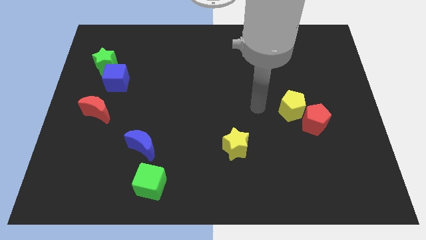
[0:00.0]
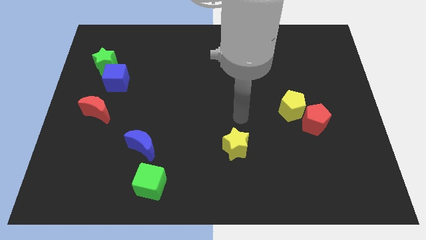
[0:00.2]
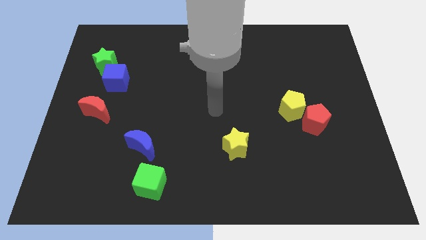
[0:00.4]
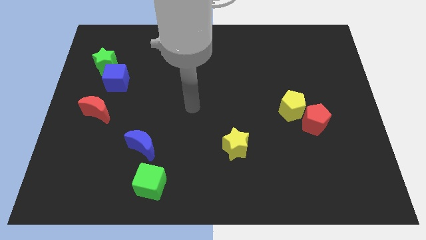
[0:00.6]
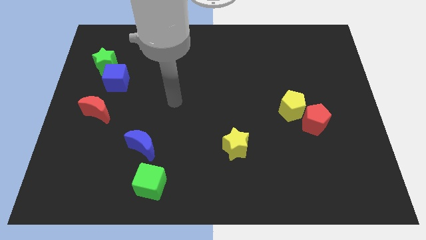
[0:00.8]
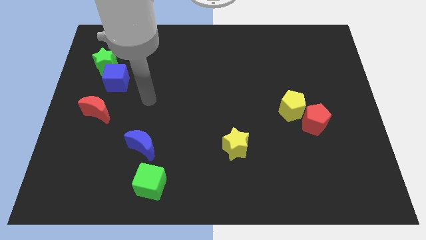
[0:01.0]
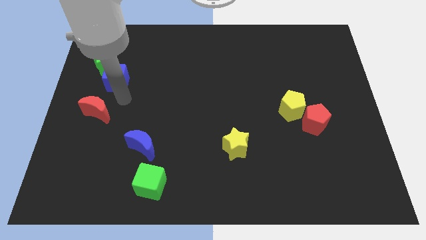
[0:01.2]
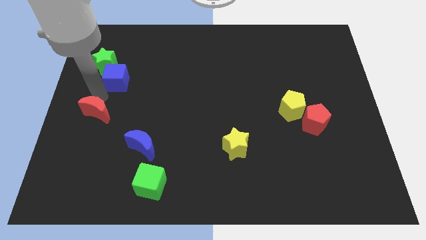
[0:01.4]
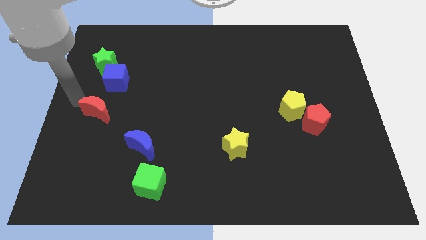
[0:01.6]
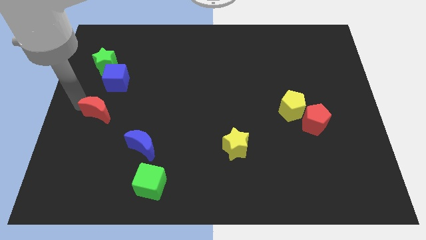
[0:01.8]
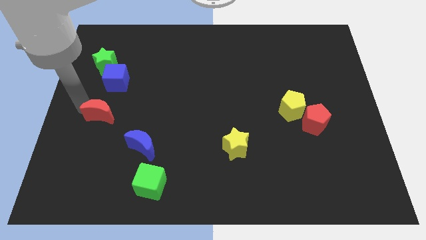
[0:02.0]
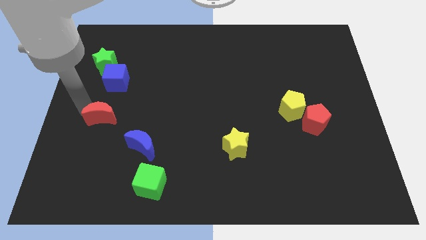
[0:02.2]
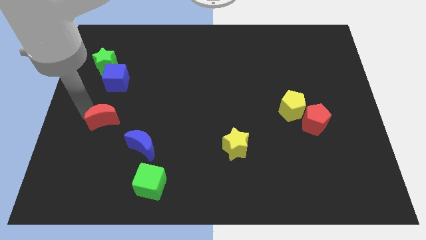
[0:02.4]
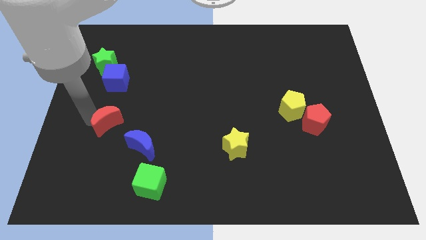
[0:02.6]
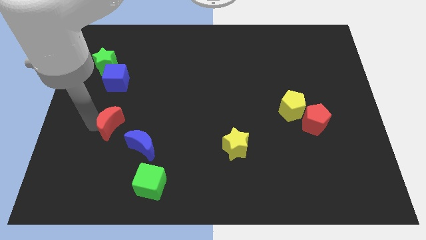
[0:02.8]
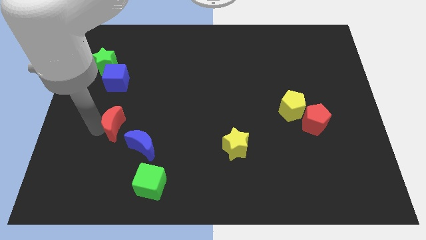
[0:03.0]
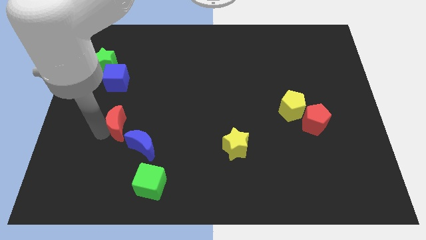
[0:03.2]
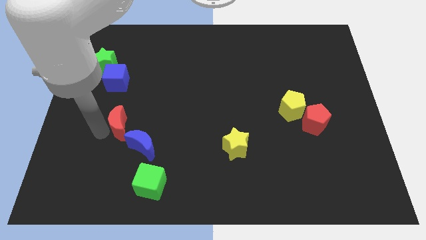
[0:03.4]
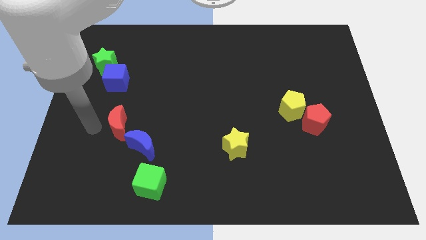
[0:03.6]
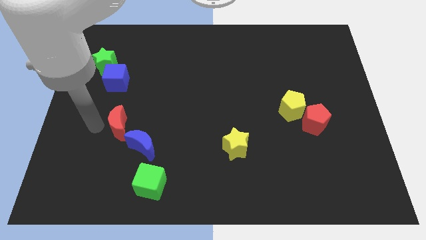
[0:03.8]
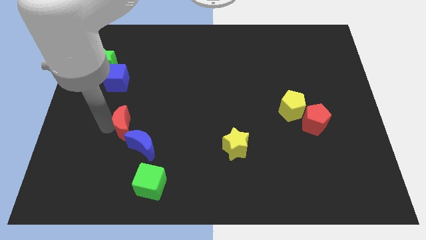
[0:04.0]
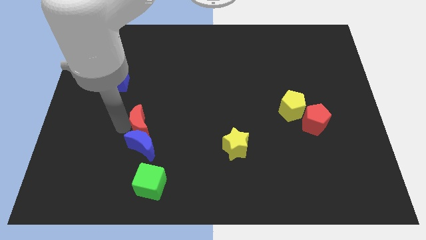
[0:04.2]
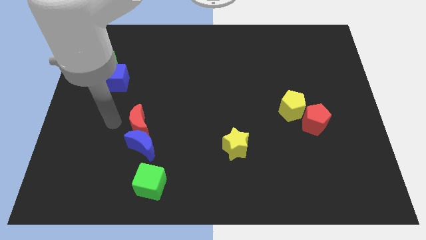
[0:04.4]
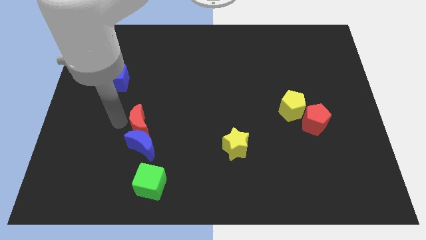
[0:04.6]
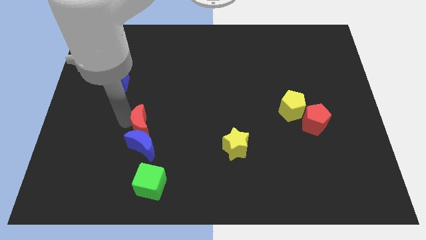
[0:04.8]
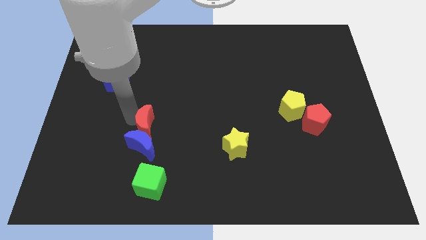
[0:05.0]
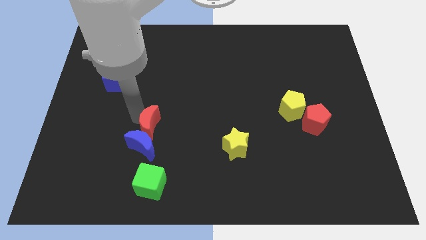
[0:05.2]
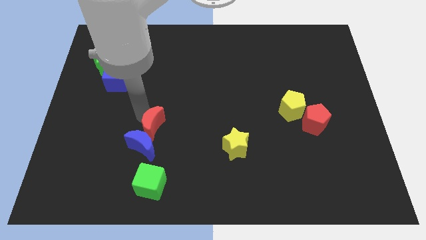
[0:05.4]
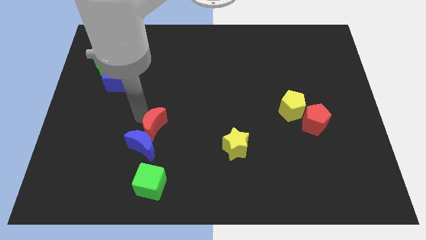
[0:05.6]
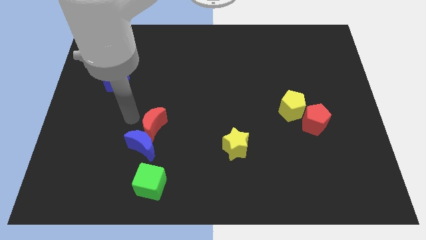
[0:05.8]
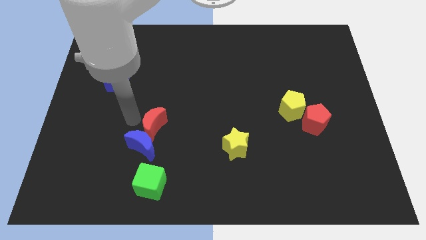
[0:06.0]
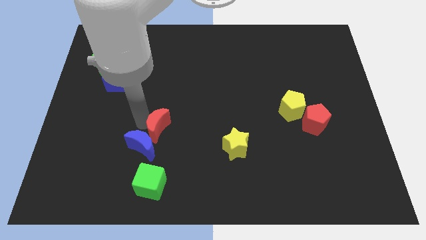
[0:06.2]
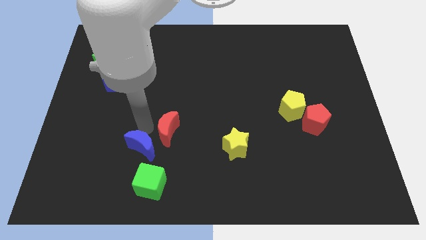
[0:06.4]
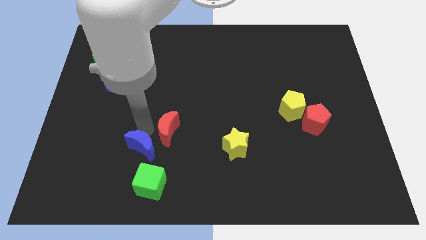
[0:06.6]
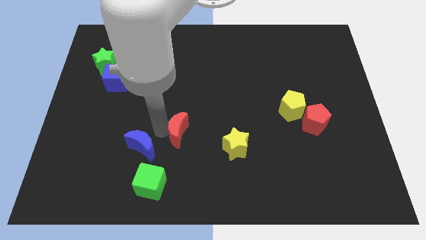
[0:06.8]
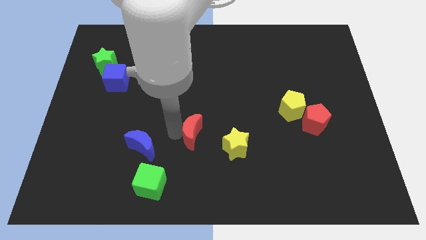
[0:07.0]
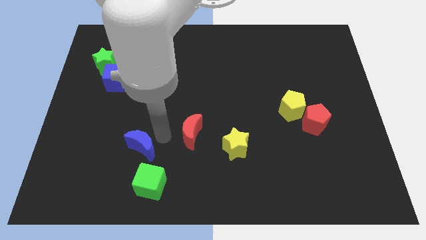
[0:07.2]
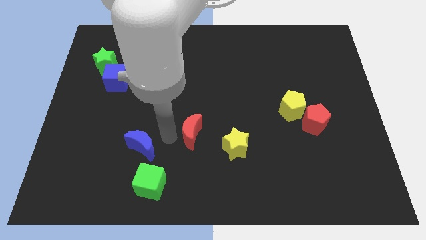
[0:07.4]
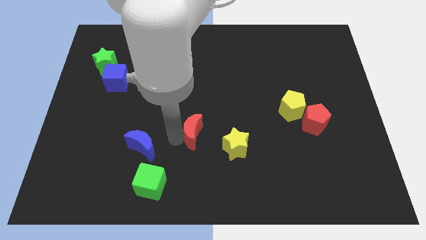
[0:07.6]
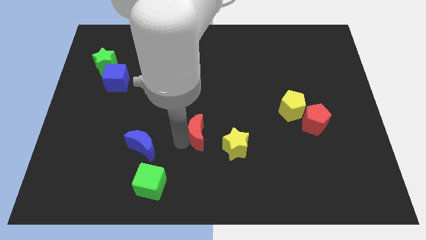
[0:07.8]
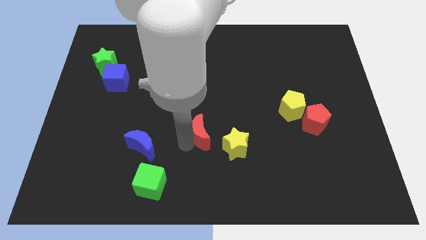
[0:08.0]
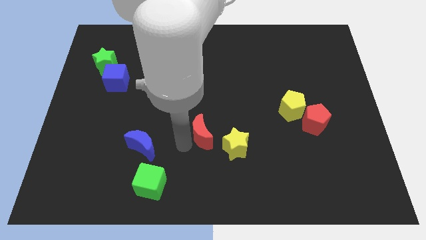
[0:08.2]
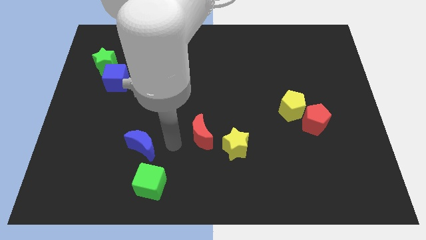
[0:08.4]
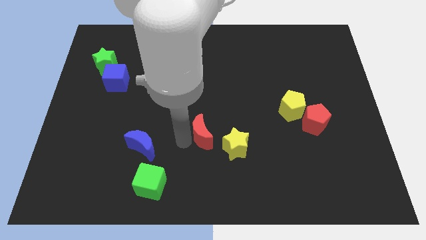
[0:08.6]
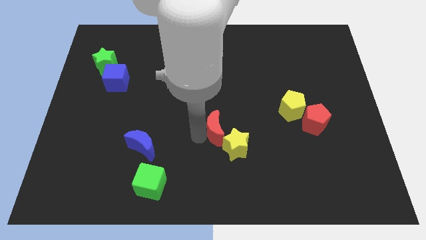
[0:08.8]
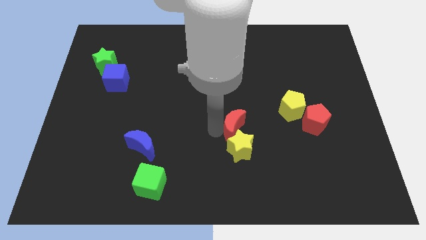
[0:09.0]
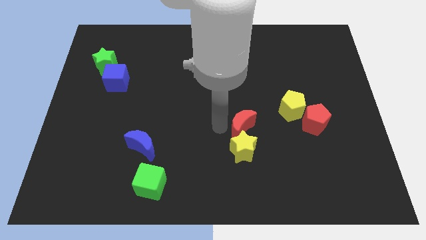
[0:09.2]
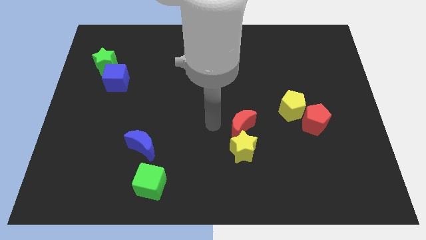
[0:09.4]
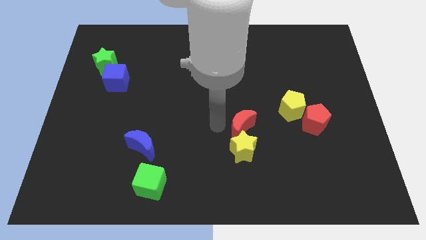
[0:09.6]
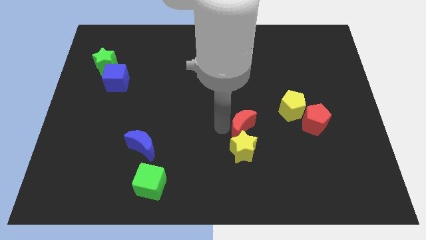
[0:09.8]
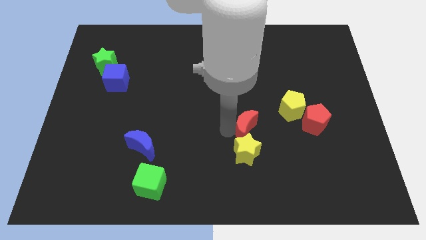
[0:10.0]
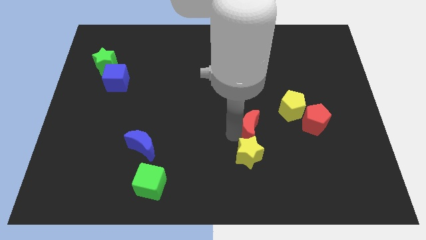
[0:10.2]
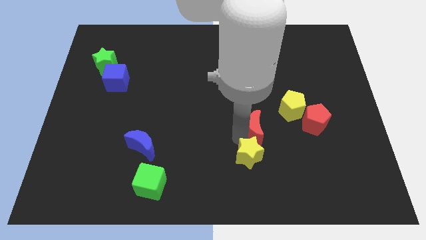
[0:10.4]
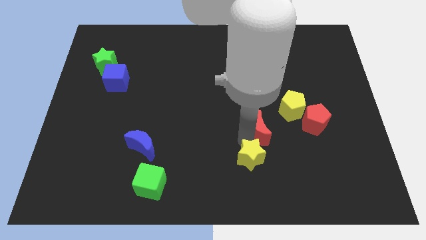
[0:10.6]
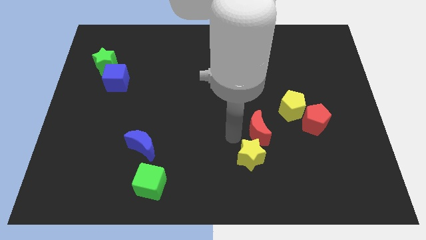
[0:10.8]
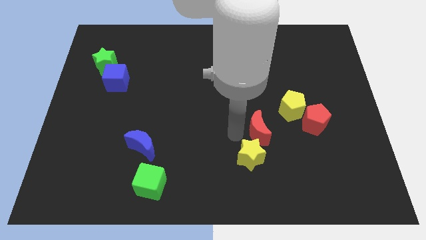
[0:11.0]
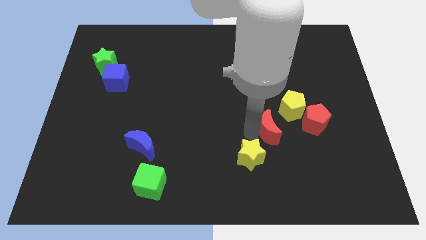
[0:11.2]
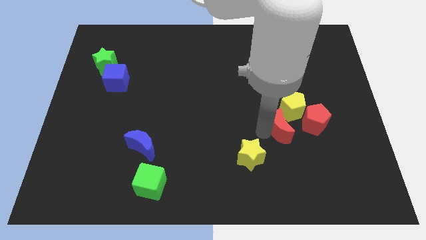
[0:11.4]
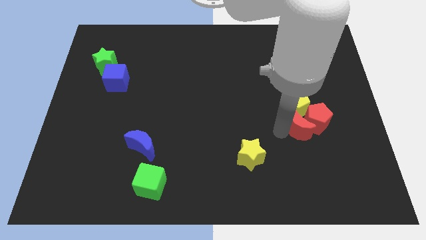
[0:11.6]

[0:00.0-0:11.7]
put the red moon next to the red pentagon
